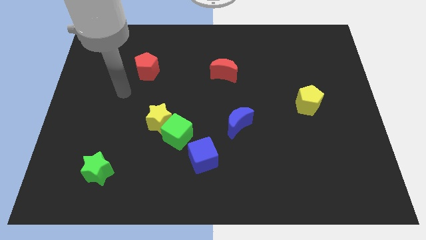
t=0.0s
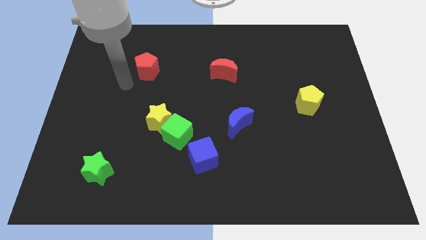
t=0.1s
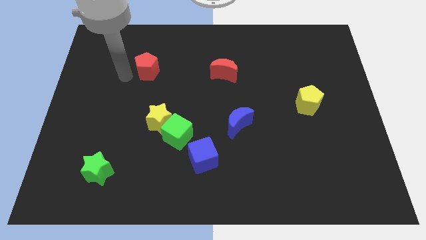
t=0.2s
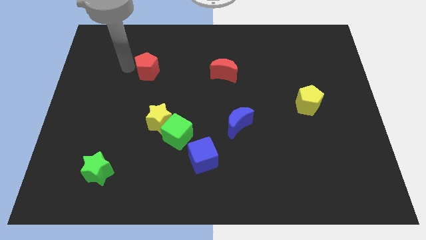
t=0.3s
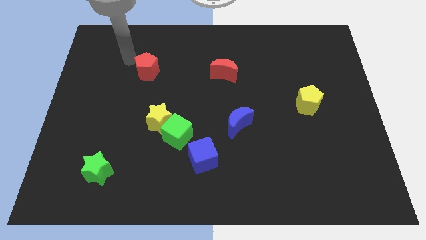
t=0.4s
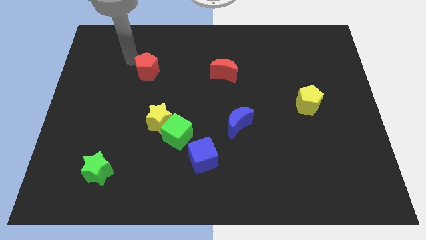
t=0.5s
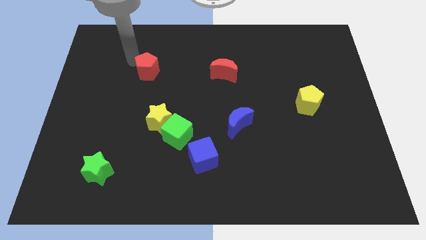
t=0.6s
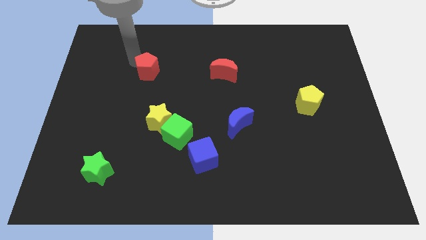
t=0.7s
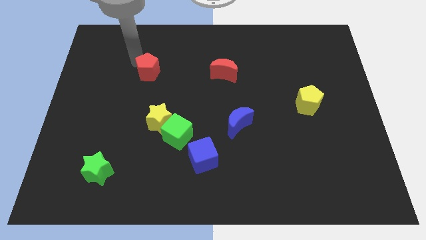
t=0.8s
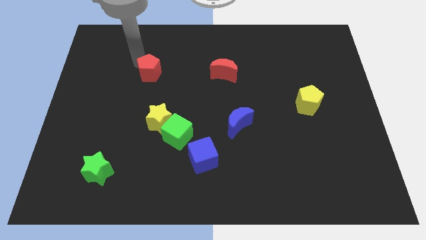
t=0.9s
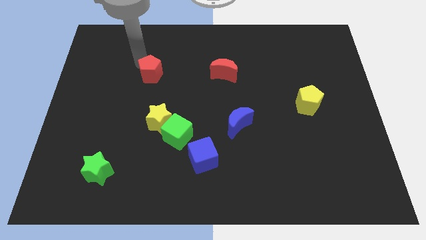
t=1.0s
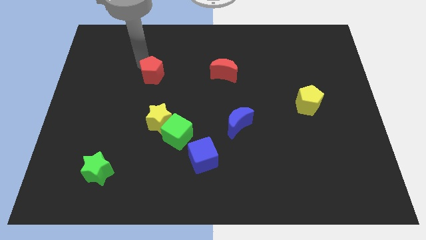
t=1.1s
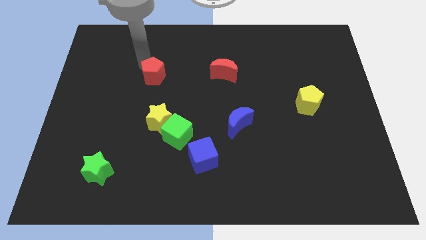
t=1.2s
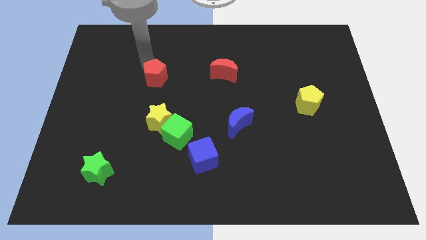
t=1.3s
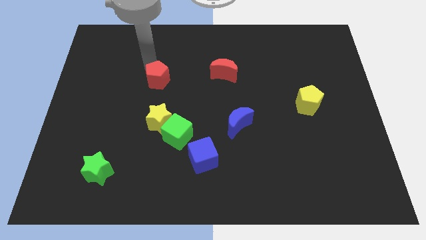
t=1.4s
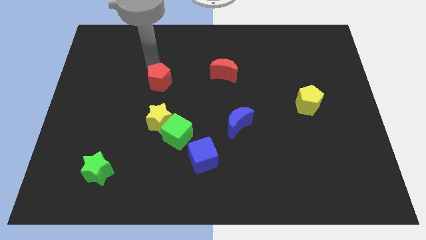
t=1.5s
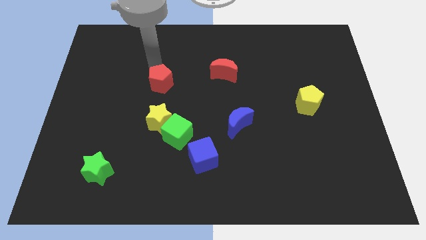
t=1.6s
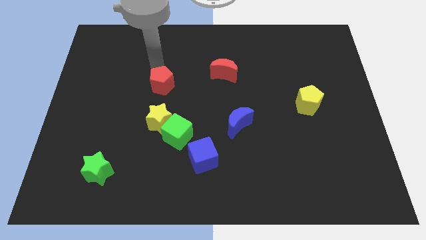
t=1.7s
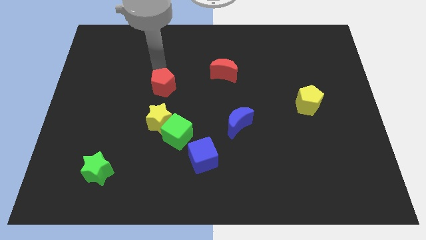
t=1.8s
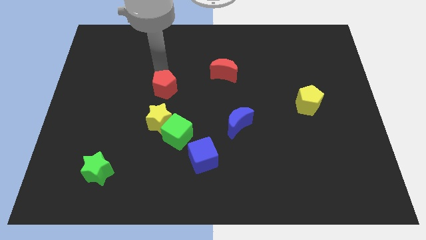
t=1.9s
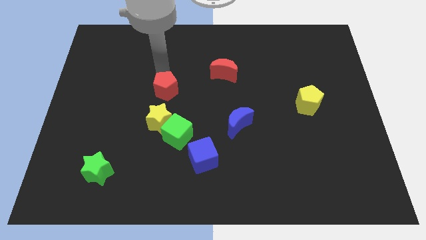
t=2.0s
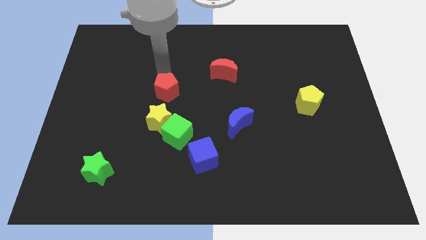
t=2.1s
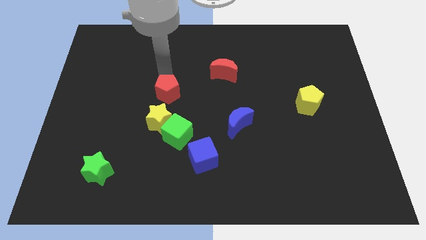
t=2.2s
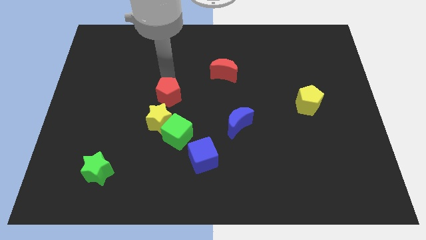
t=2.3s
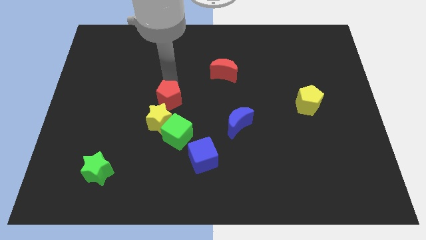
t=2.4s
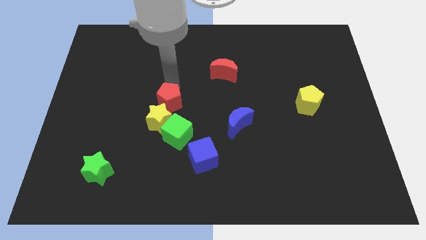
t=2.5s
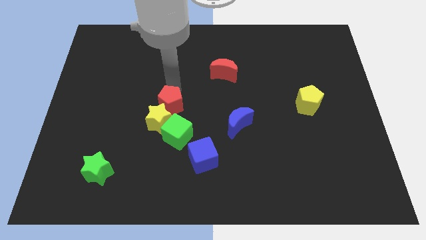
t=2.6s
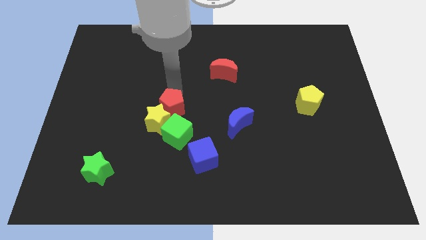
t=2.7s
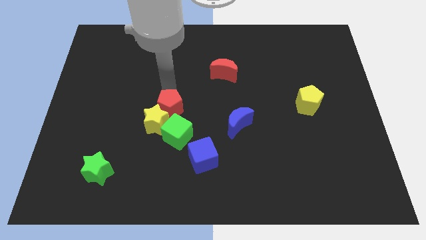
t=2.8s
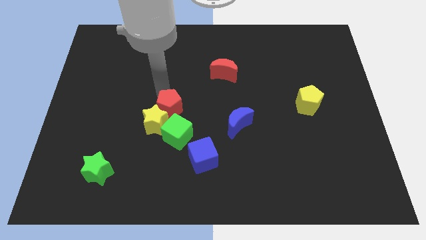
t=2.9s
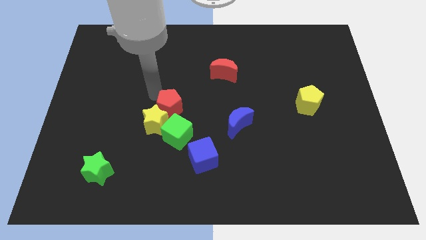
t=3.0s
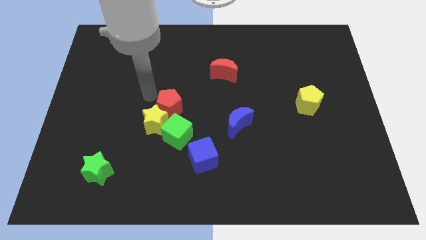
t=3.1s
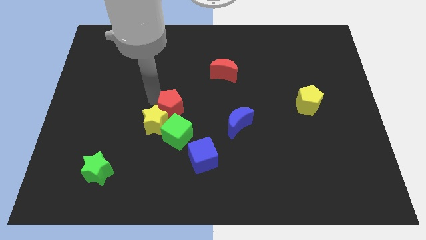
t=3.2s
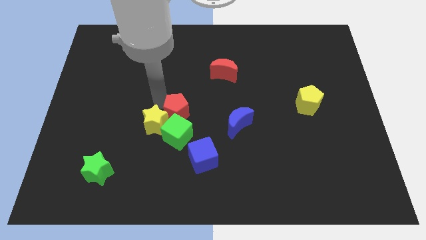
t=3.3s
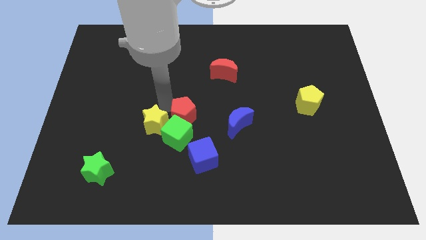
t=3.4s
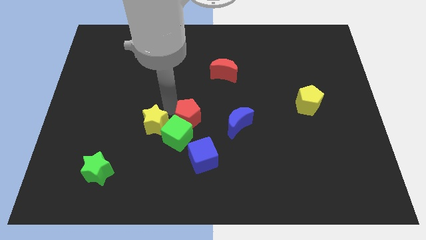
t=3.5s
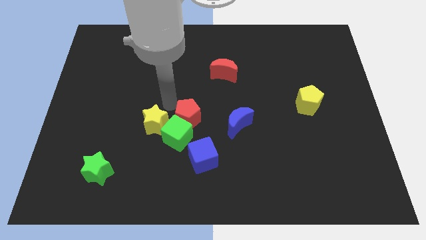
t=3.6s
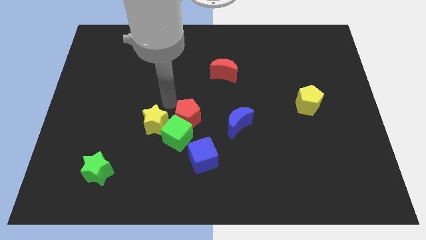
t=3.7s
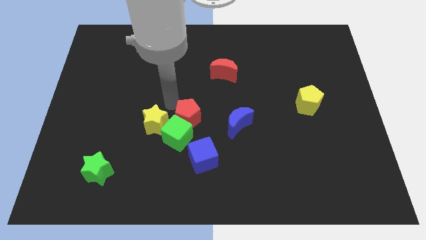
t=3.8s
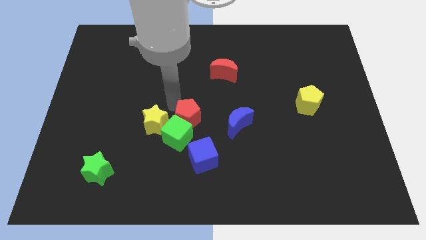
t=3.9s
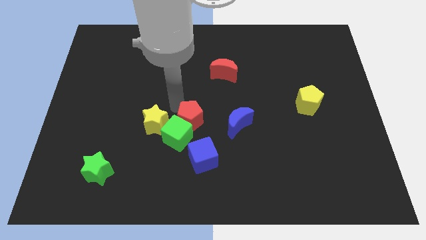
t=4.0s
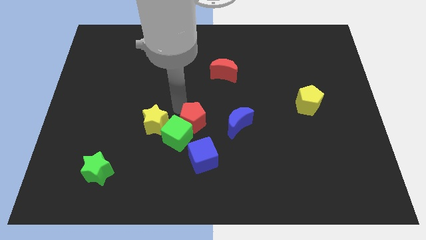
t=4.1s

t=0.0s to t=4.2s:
slide the red pentagon down and to the right

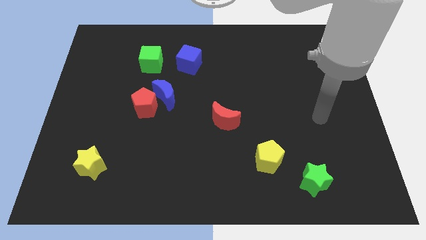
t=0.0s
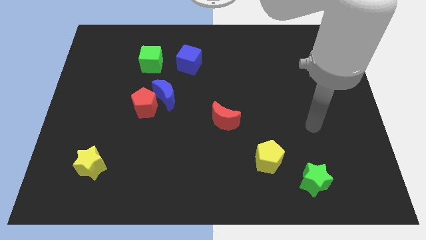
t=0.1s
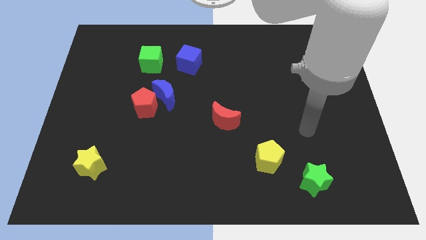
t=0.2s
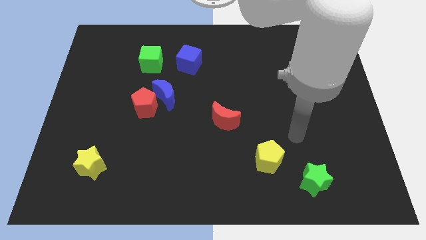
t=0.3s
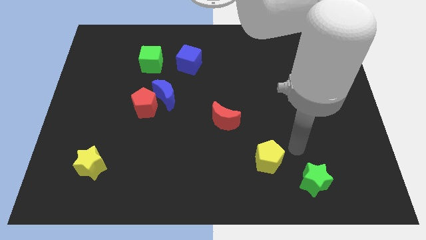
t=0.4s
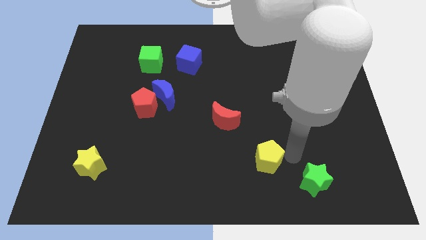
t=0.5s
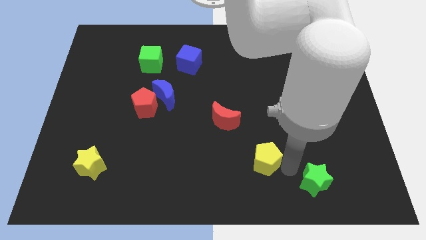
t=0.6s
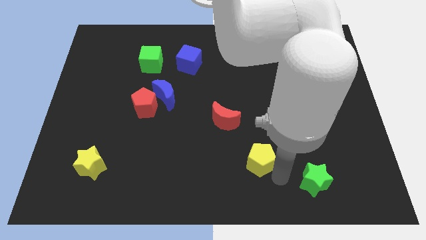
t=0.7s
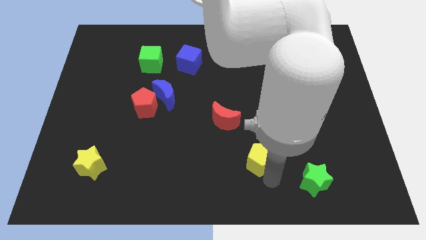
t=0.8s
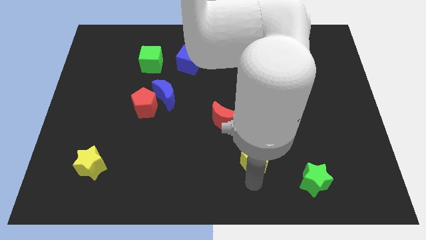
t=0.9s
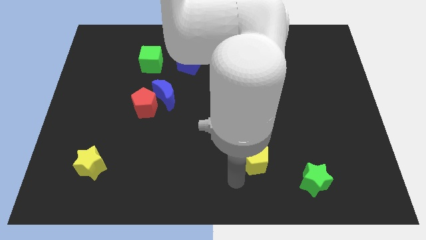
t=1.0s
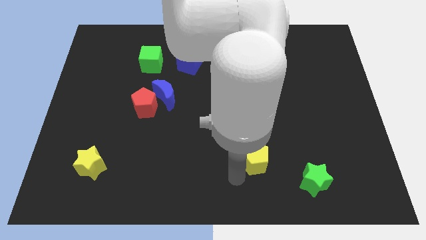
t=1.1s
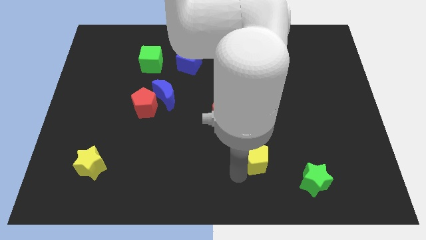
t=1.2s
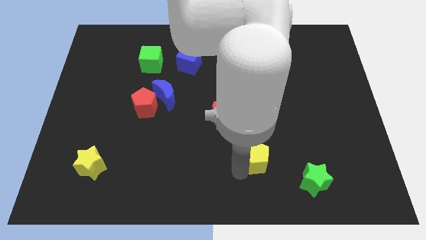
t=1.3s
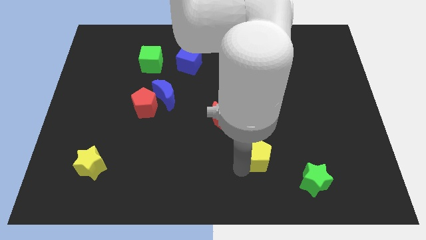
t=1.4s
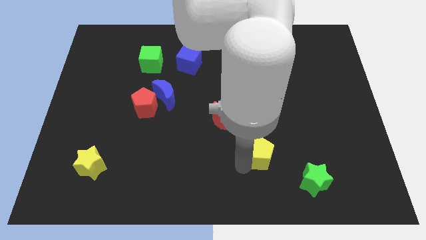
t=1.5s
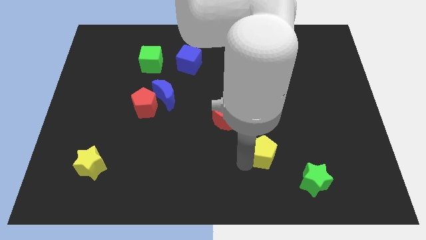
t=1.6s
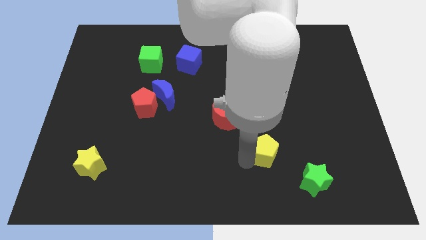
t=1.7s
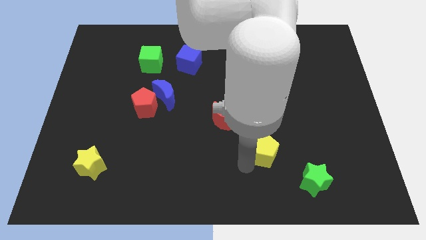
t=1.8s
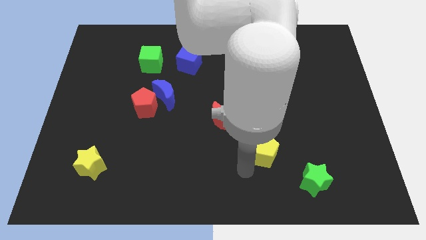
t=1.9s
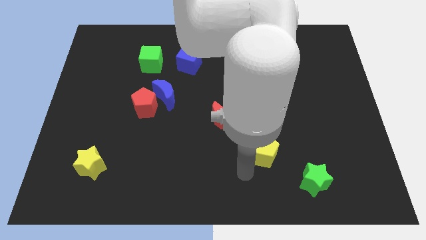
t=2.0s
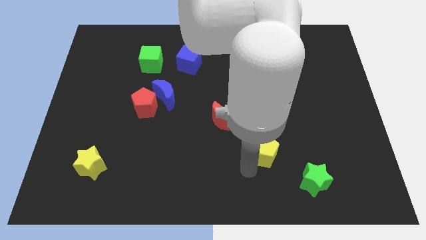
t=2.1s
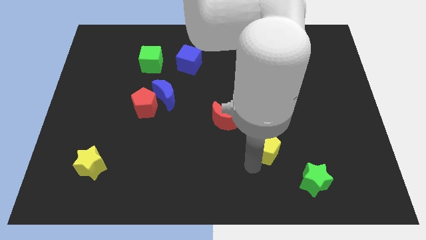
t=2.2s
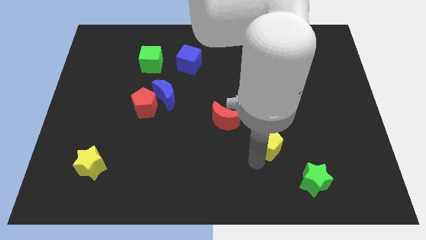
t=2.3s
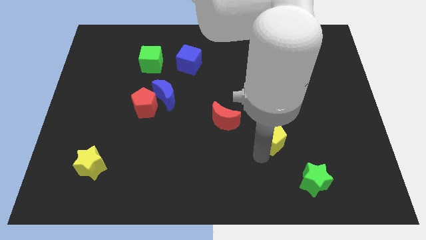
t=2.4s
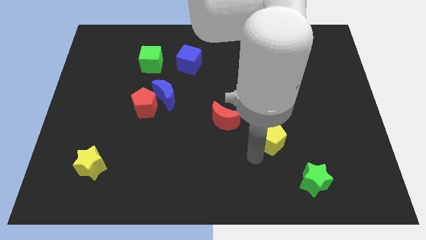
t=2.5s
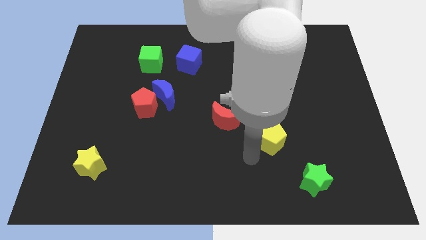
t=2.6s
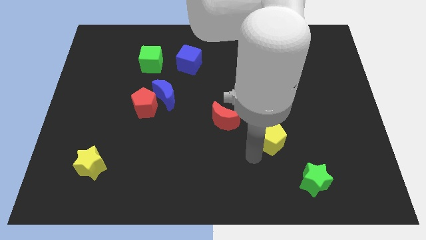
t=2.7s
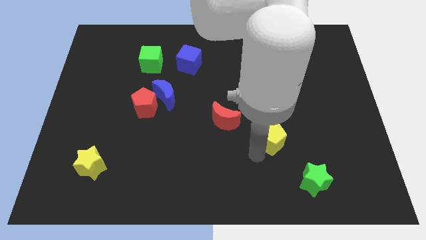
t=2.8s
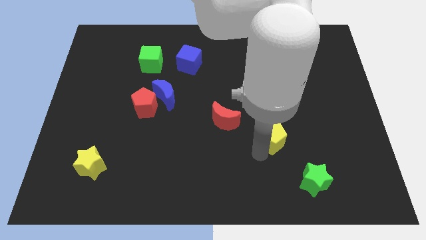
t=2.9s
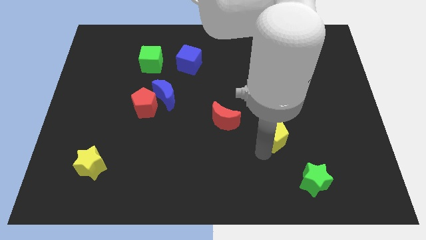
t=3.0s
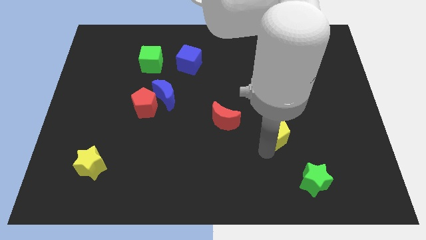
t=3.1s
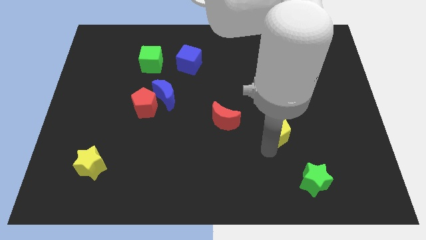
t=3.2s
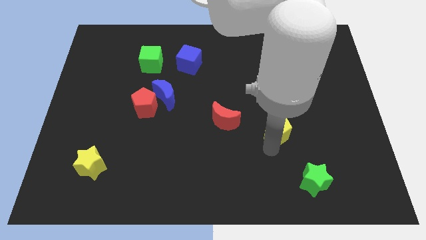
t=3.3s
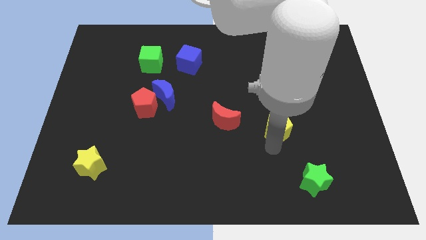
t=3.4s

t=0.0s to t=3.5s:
slide the yellow pentagon somewhat diagonally upwards and to the right

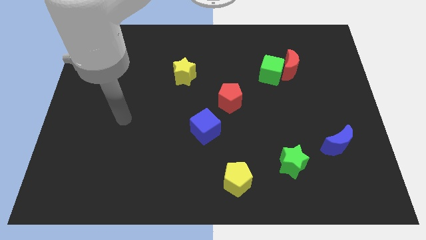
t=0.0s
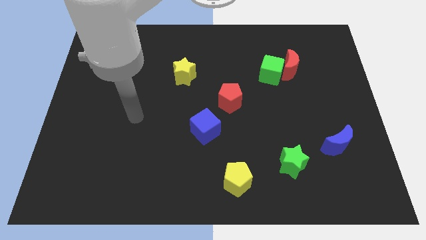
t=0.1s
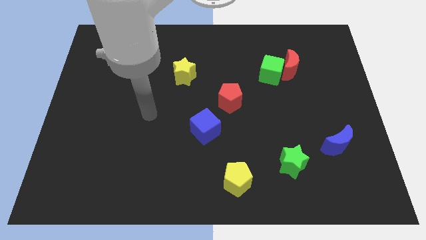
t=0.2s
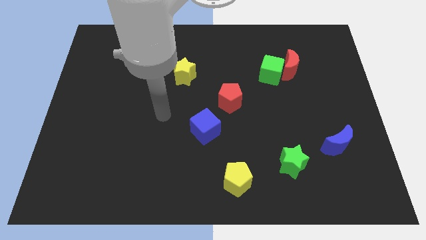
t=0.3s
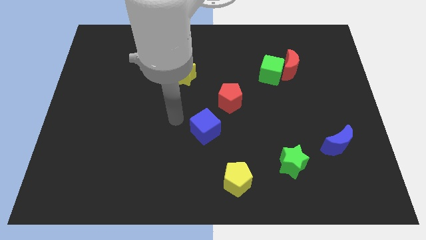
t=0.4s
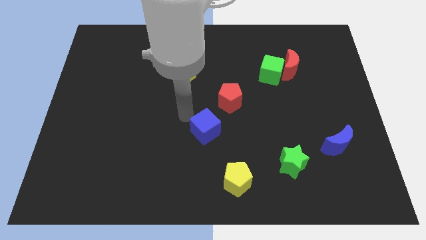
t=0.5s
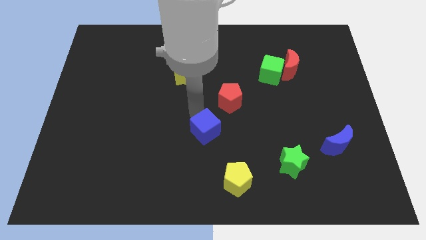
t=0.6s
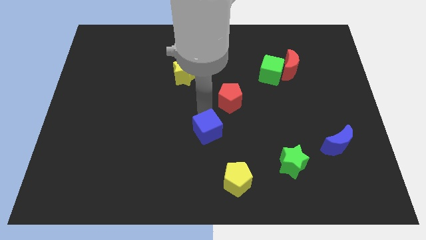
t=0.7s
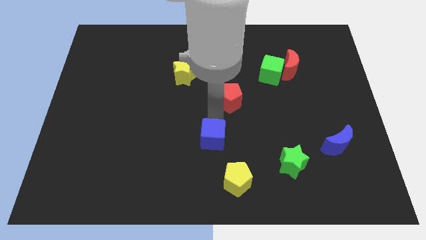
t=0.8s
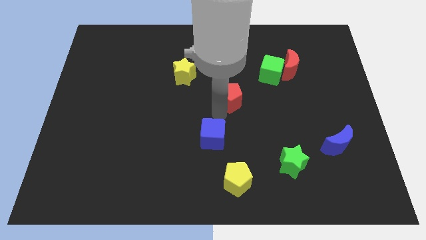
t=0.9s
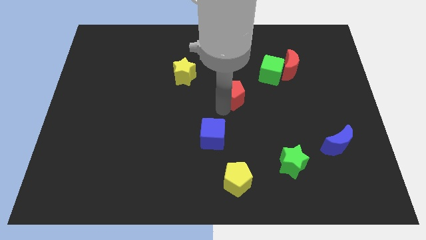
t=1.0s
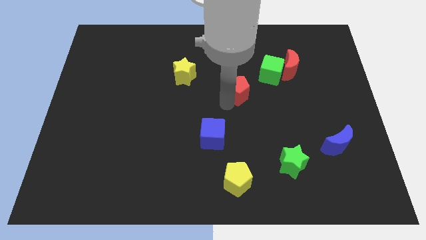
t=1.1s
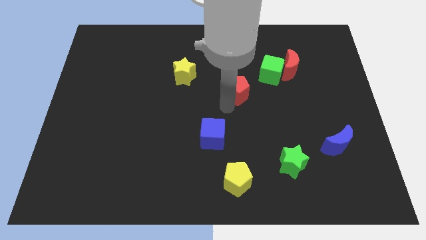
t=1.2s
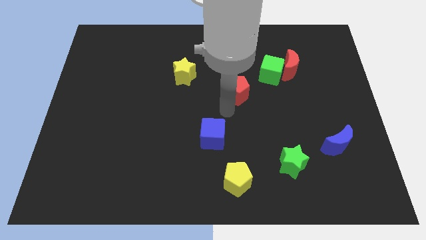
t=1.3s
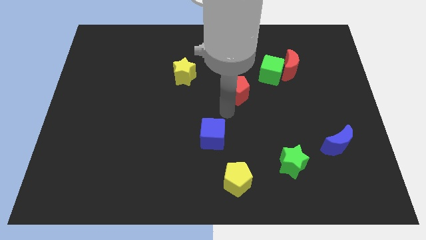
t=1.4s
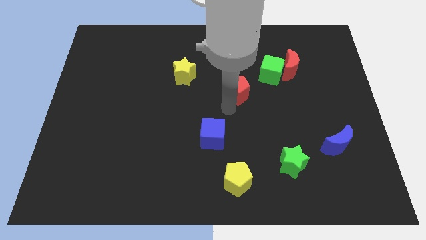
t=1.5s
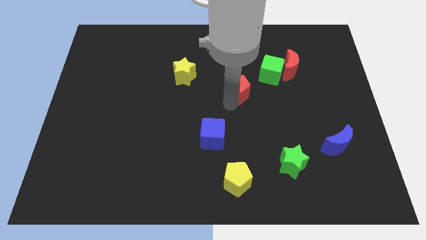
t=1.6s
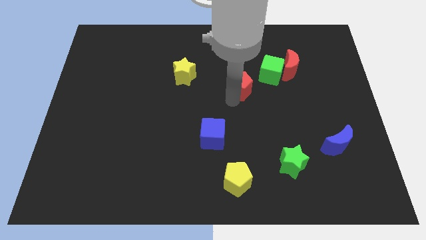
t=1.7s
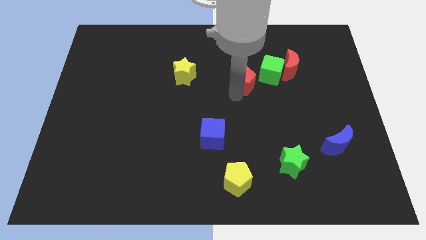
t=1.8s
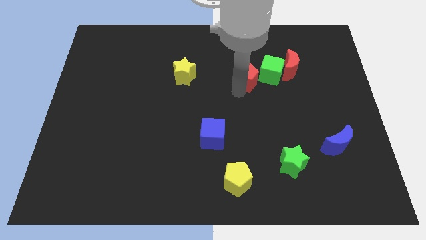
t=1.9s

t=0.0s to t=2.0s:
move the red pentagon slightly up and right diagonally
